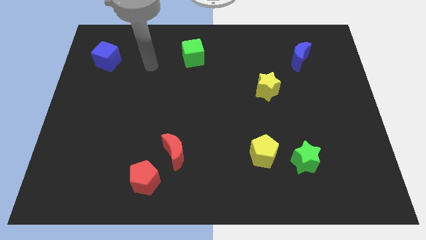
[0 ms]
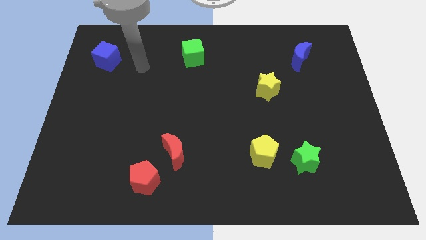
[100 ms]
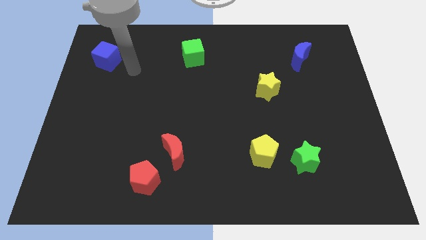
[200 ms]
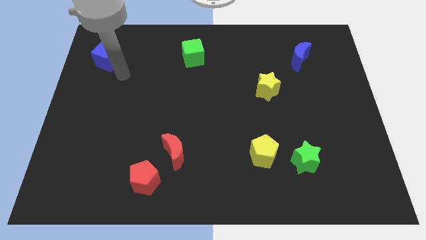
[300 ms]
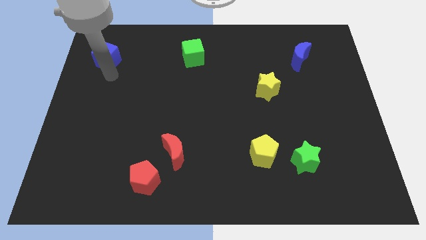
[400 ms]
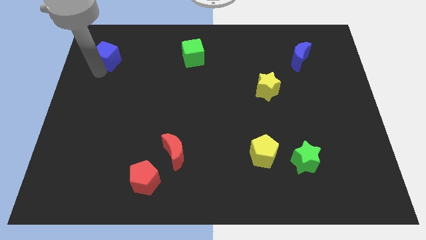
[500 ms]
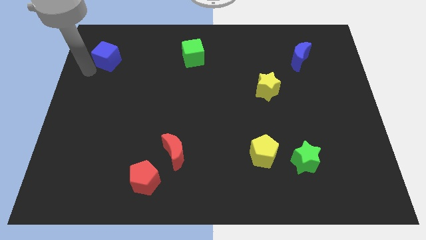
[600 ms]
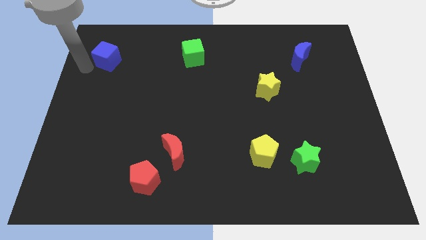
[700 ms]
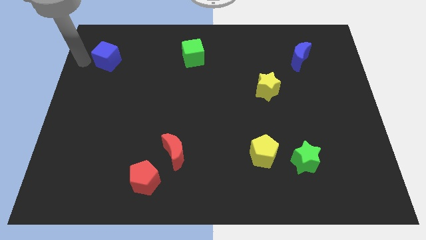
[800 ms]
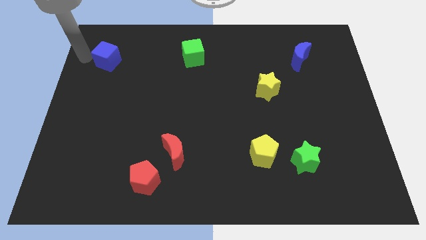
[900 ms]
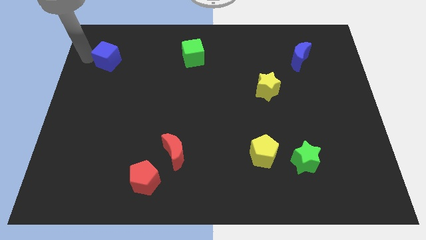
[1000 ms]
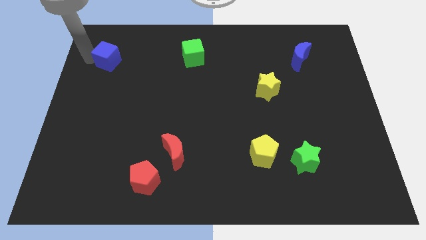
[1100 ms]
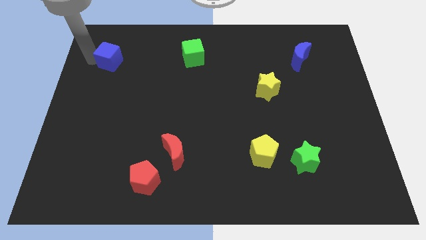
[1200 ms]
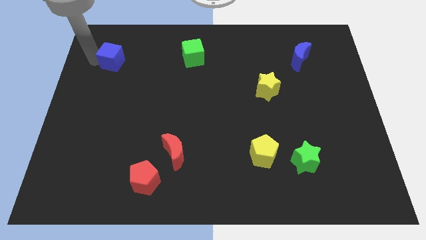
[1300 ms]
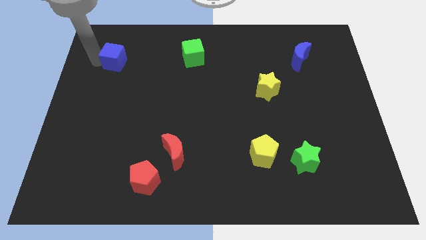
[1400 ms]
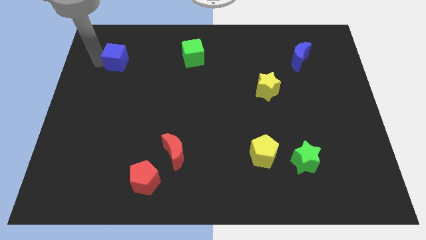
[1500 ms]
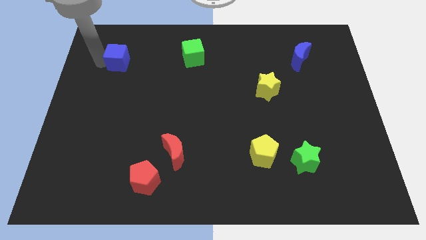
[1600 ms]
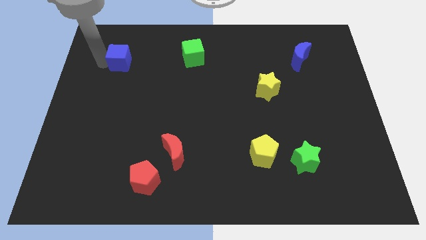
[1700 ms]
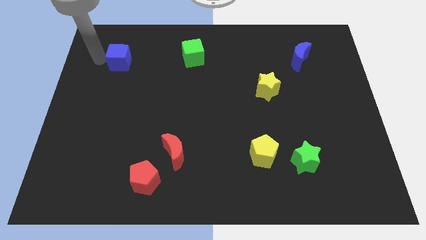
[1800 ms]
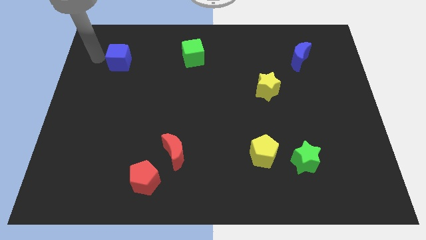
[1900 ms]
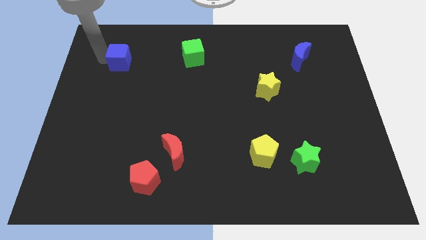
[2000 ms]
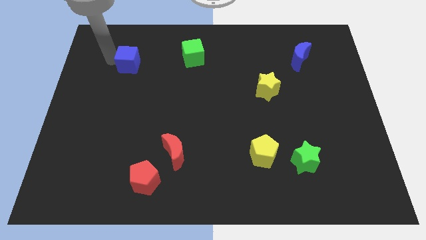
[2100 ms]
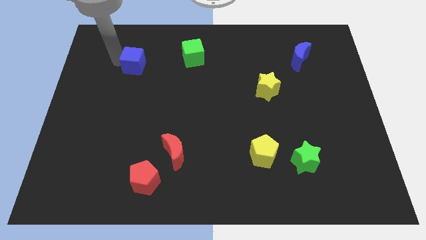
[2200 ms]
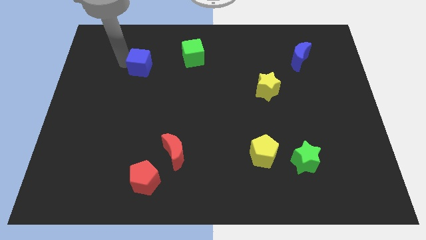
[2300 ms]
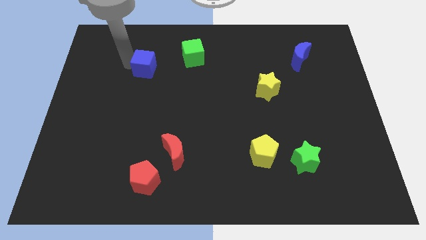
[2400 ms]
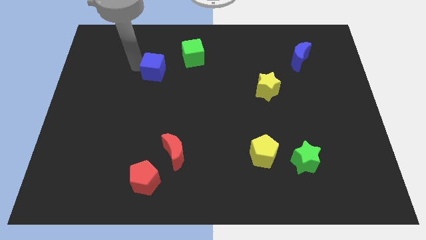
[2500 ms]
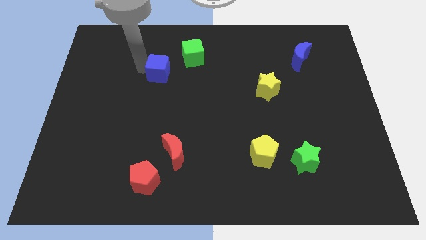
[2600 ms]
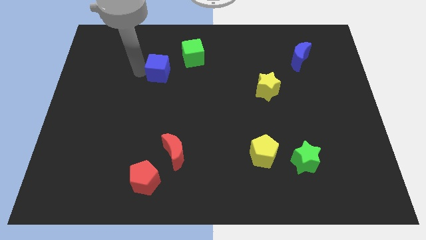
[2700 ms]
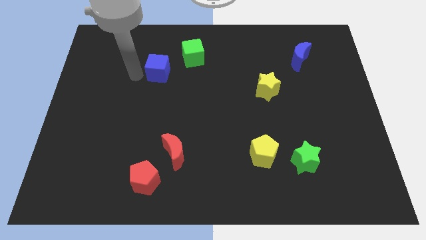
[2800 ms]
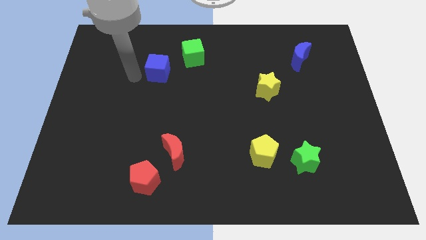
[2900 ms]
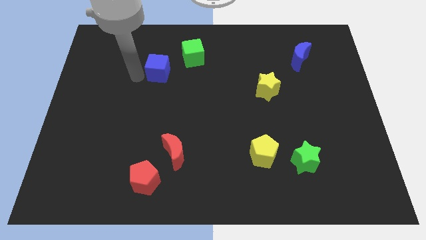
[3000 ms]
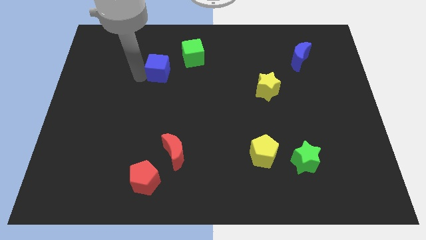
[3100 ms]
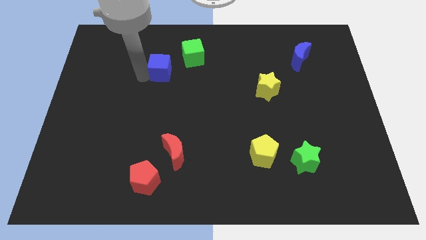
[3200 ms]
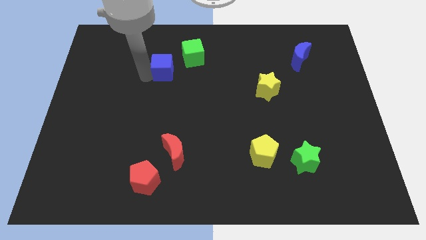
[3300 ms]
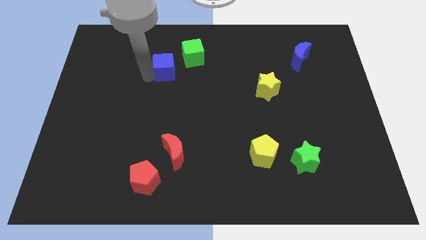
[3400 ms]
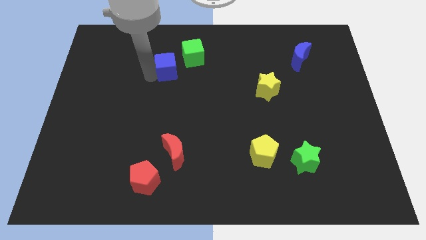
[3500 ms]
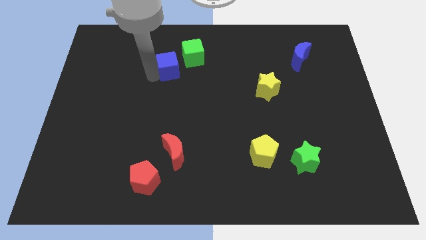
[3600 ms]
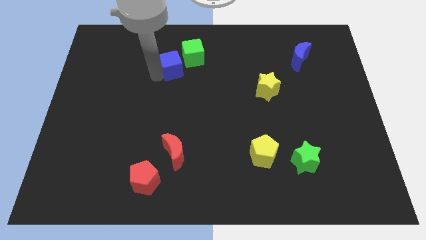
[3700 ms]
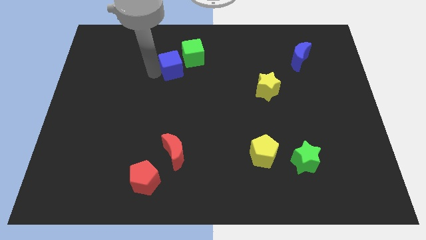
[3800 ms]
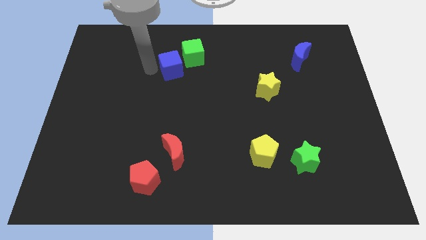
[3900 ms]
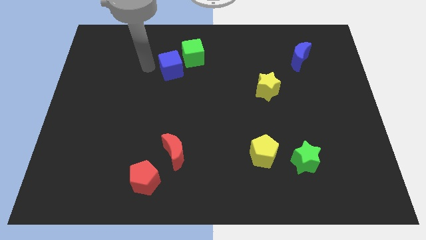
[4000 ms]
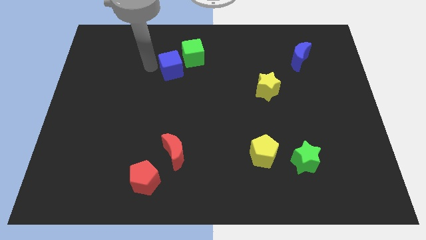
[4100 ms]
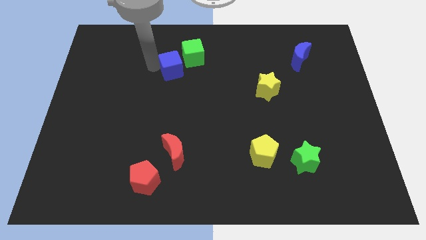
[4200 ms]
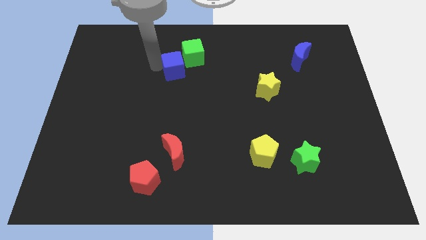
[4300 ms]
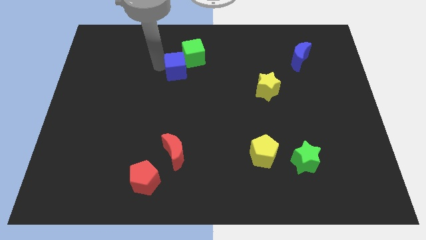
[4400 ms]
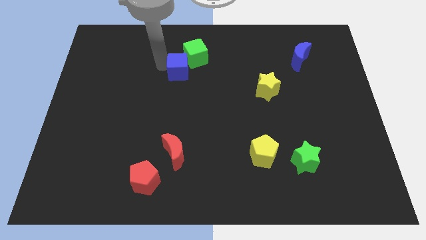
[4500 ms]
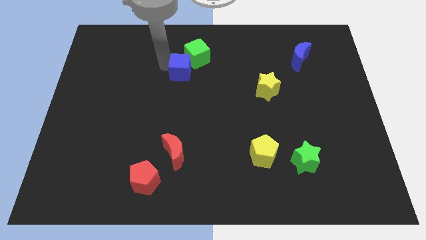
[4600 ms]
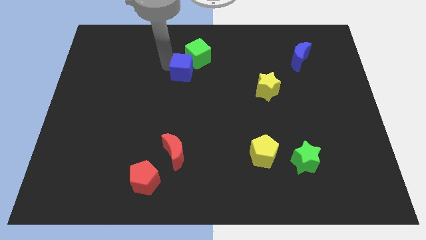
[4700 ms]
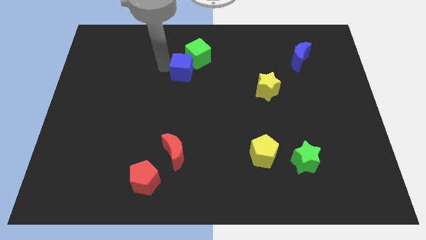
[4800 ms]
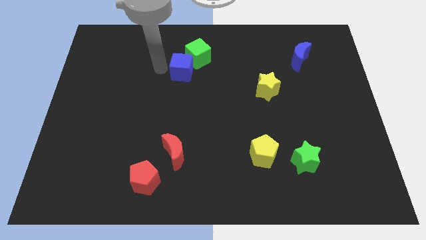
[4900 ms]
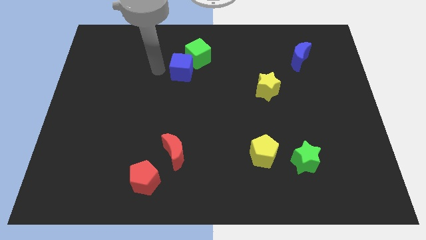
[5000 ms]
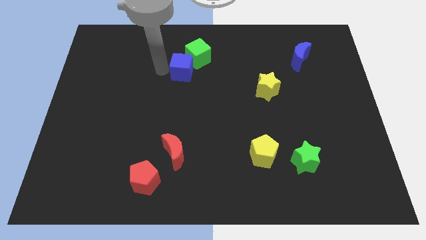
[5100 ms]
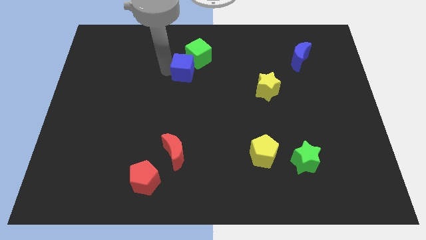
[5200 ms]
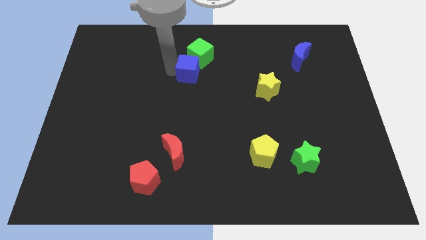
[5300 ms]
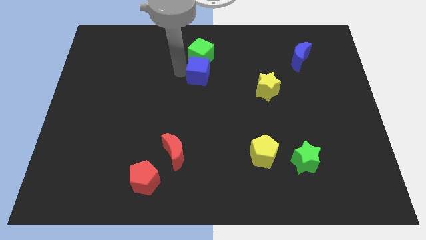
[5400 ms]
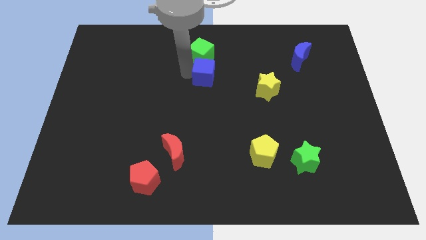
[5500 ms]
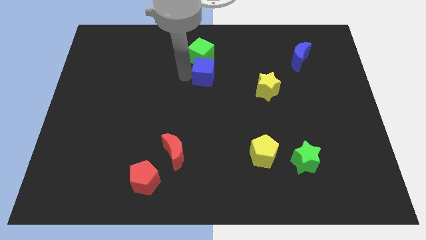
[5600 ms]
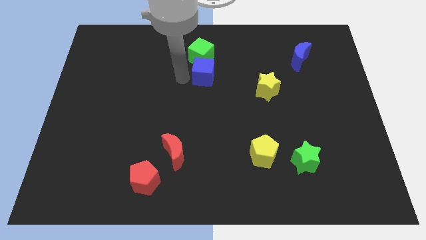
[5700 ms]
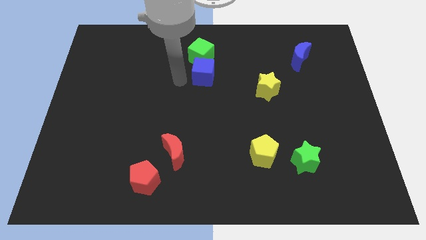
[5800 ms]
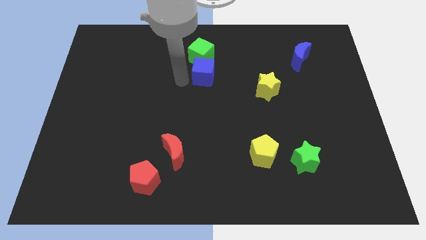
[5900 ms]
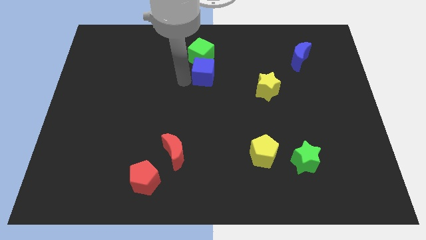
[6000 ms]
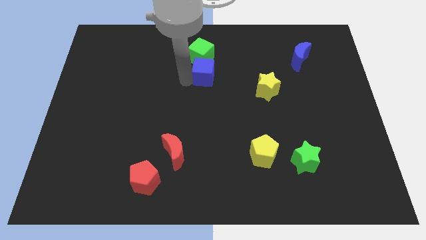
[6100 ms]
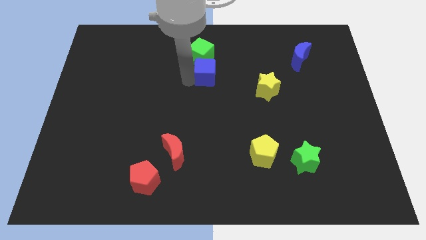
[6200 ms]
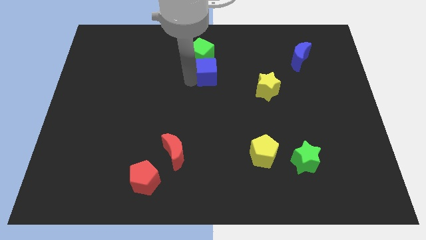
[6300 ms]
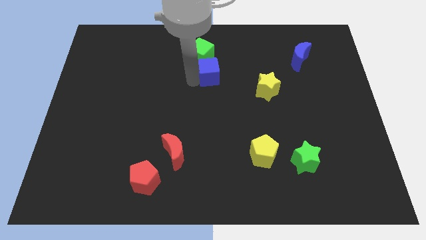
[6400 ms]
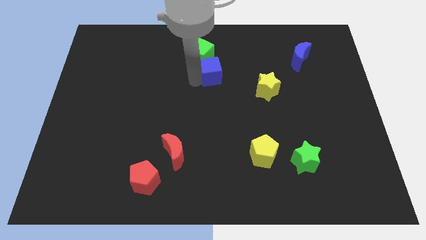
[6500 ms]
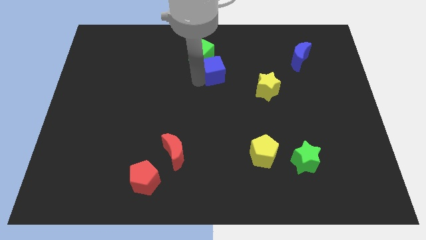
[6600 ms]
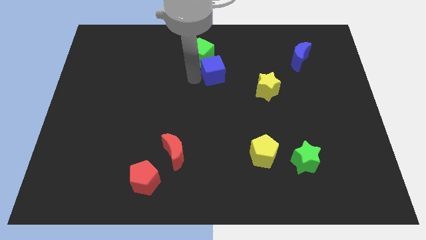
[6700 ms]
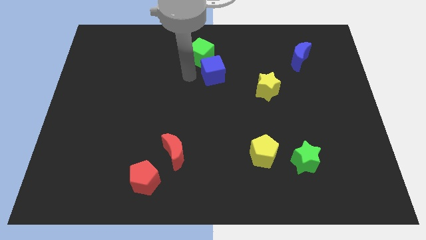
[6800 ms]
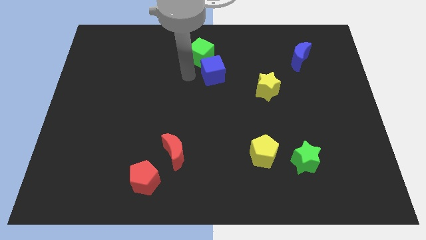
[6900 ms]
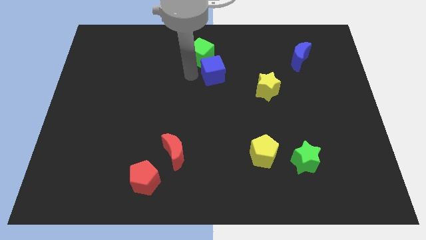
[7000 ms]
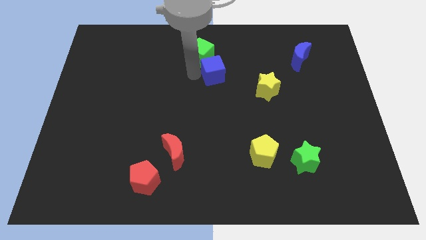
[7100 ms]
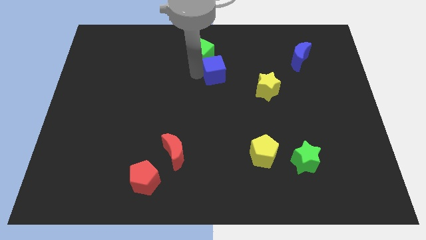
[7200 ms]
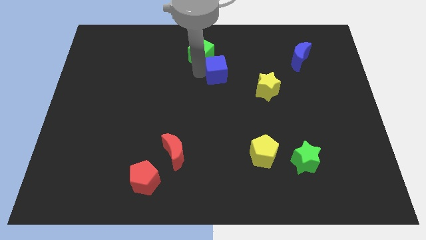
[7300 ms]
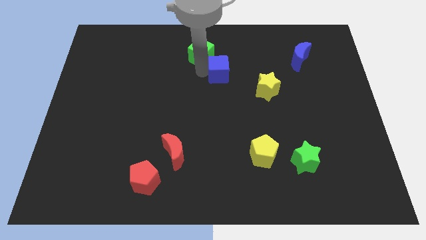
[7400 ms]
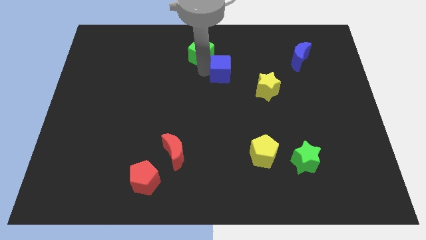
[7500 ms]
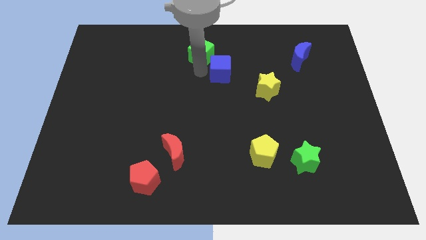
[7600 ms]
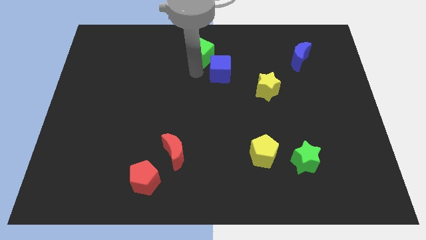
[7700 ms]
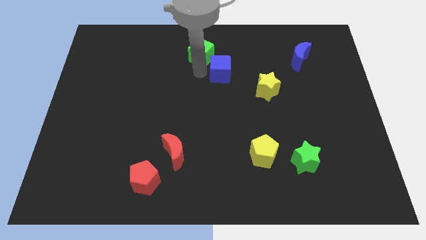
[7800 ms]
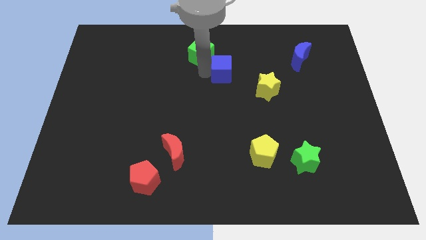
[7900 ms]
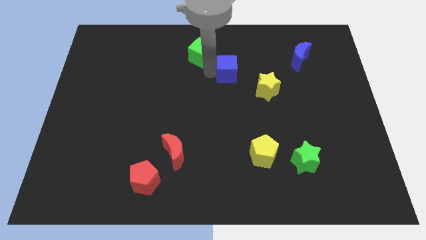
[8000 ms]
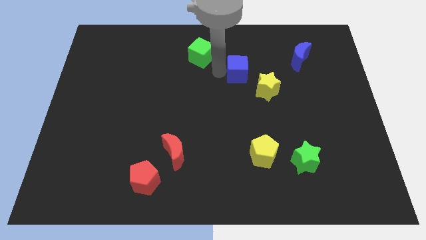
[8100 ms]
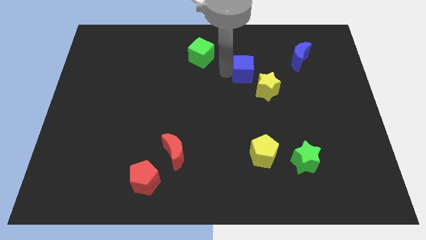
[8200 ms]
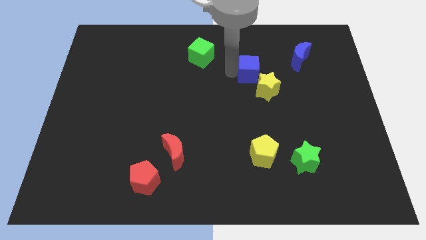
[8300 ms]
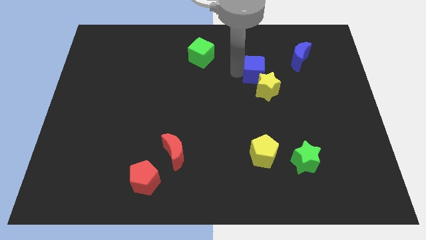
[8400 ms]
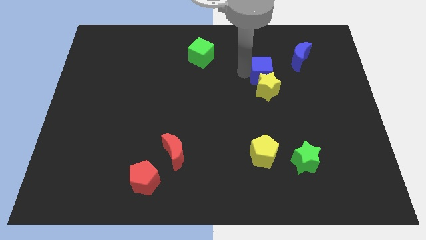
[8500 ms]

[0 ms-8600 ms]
slide the blue cube to the bottom left of the blue moon
